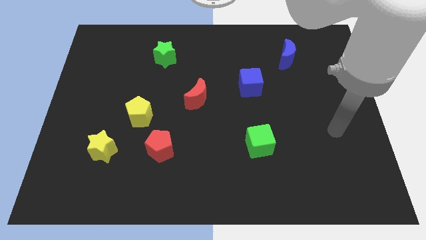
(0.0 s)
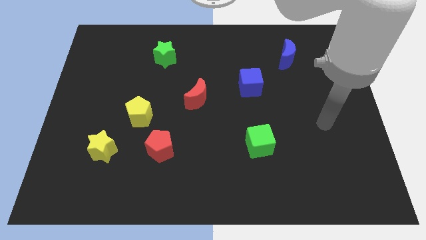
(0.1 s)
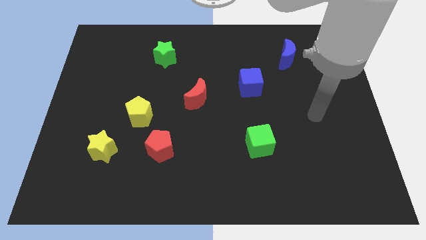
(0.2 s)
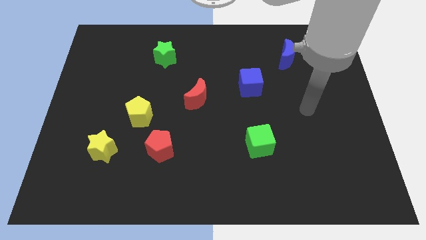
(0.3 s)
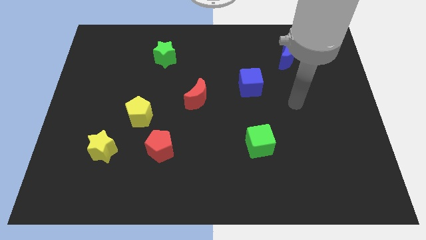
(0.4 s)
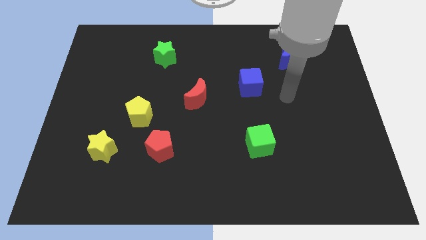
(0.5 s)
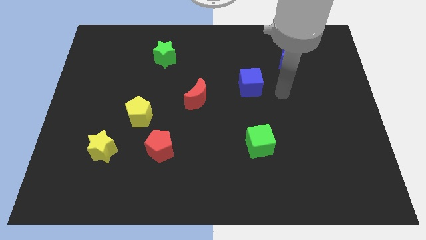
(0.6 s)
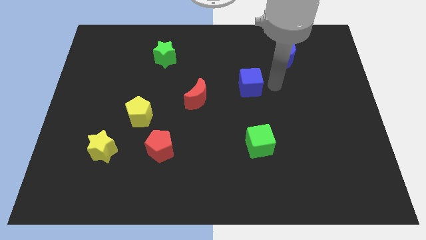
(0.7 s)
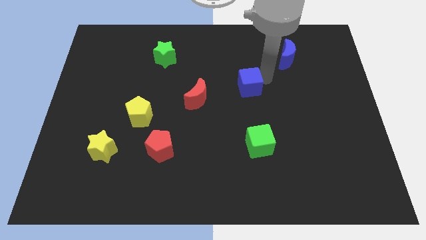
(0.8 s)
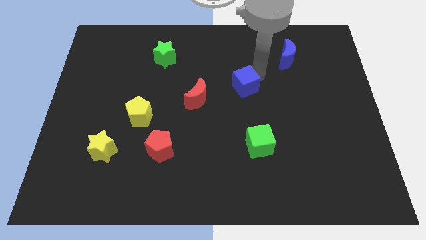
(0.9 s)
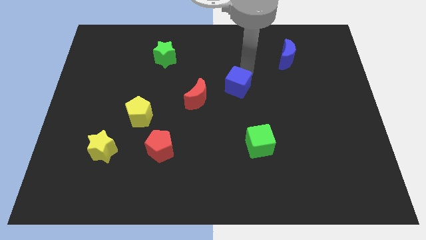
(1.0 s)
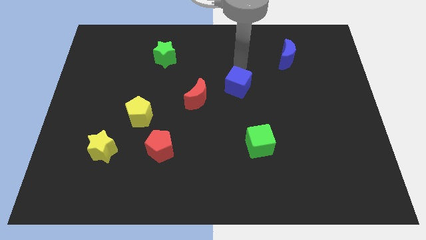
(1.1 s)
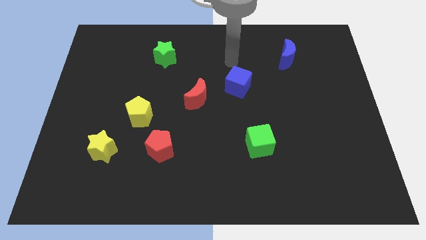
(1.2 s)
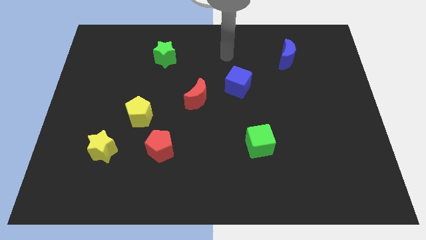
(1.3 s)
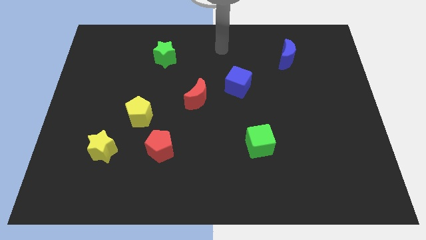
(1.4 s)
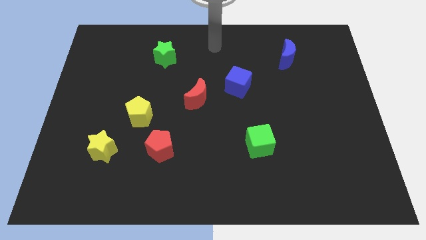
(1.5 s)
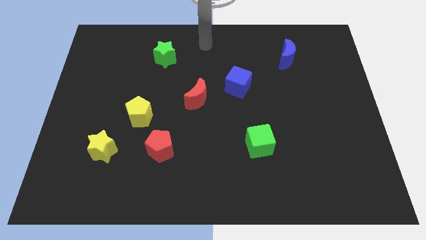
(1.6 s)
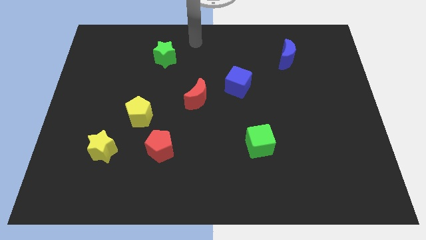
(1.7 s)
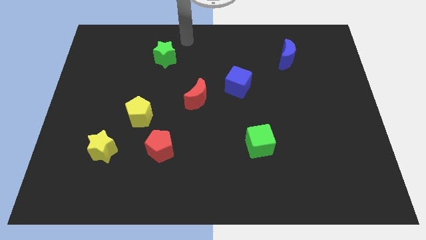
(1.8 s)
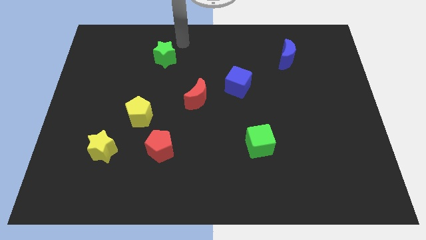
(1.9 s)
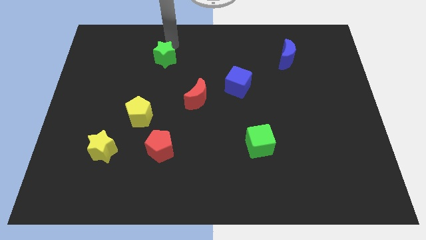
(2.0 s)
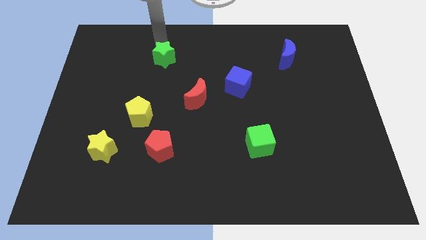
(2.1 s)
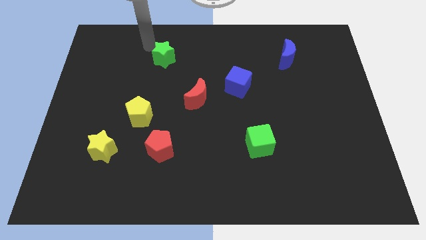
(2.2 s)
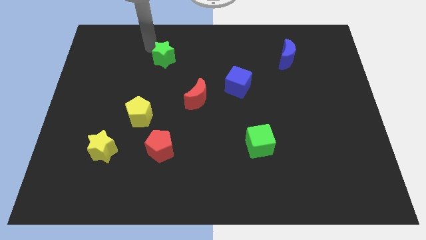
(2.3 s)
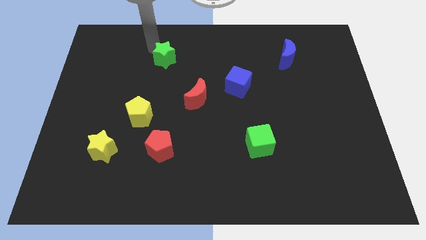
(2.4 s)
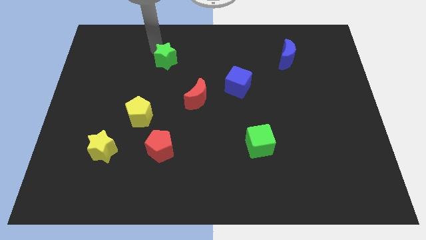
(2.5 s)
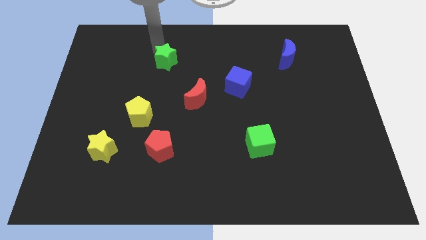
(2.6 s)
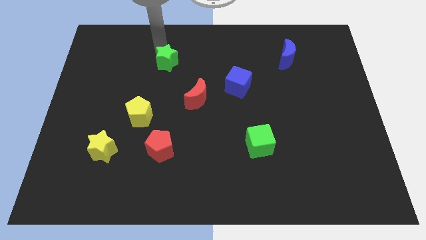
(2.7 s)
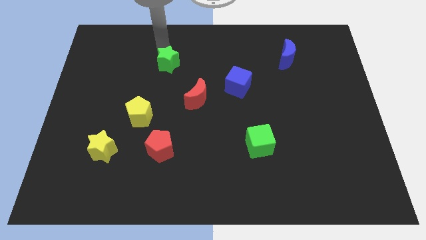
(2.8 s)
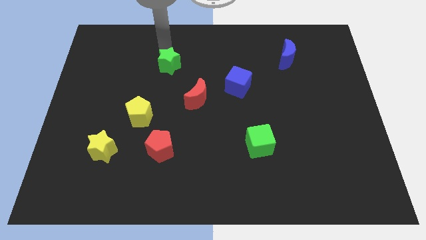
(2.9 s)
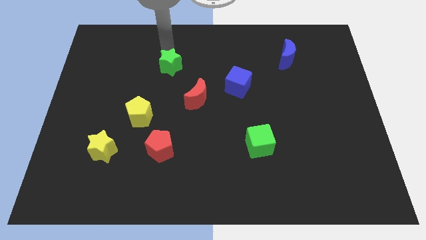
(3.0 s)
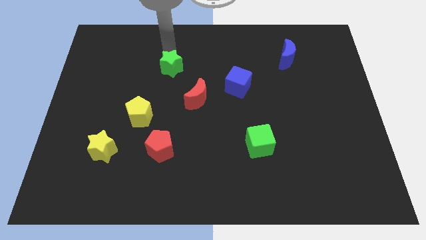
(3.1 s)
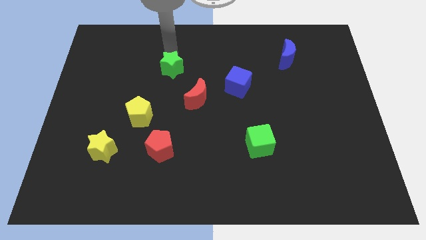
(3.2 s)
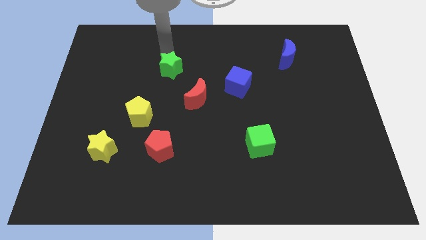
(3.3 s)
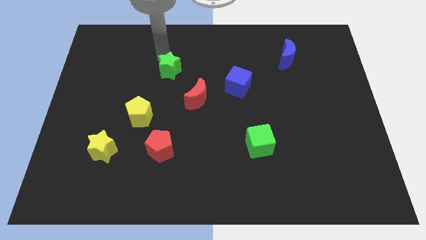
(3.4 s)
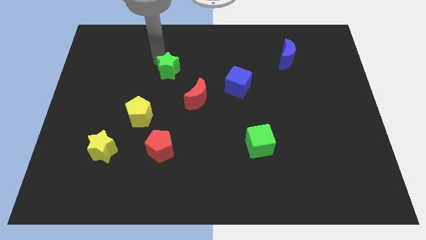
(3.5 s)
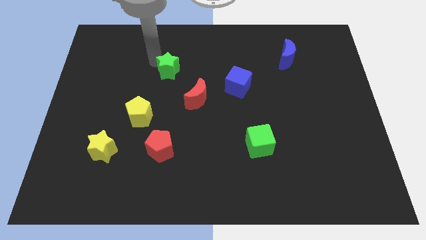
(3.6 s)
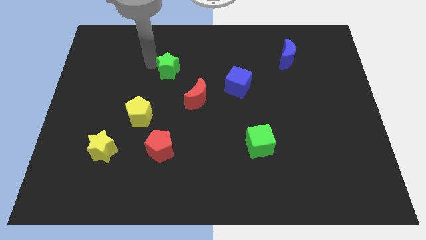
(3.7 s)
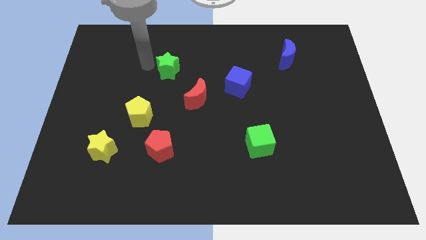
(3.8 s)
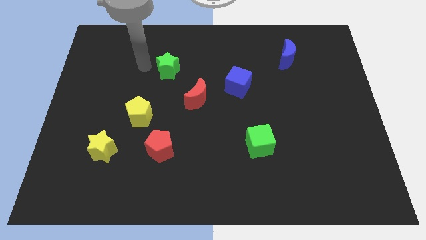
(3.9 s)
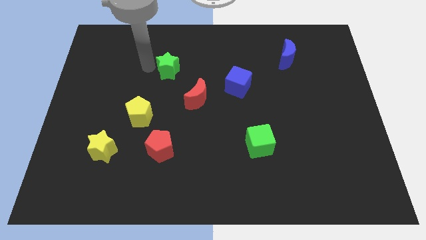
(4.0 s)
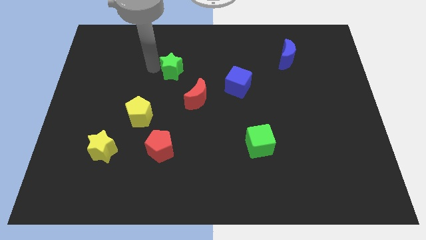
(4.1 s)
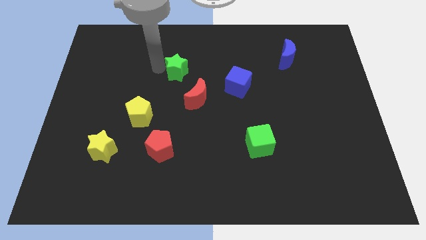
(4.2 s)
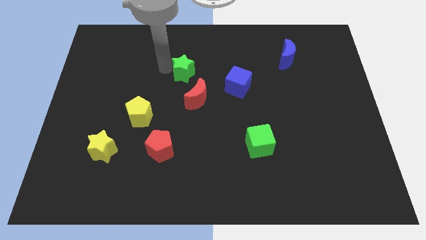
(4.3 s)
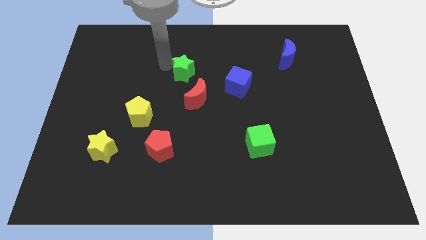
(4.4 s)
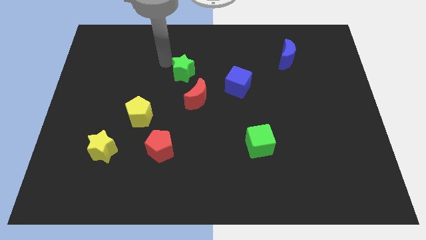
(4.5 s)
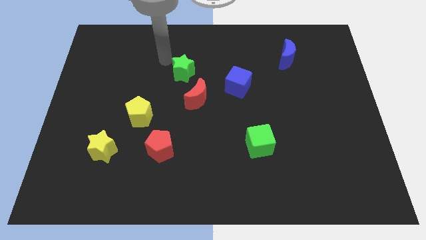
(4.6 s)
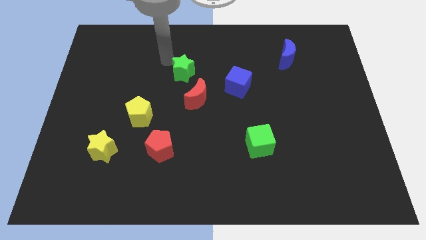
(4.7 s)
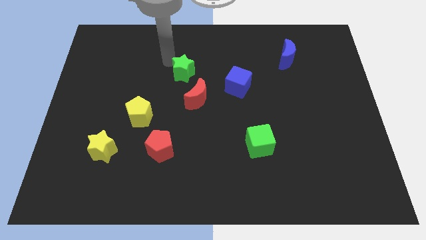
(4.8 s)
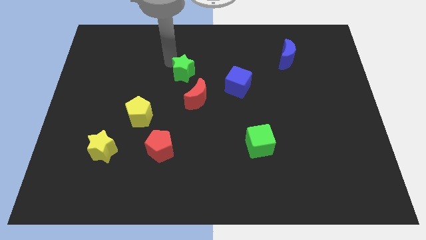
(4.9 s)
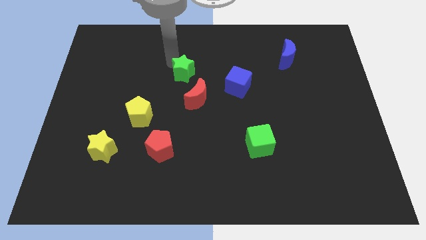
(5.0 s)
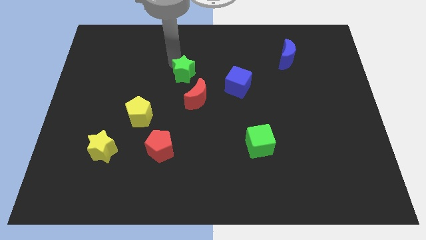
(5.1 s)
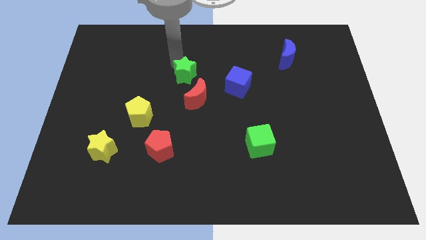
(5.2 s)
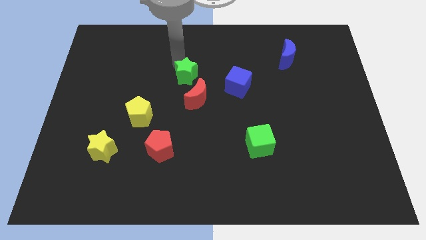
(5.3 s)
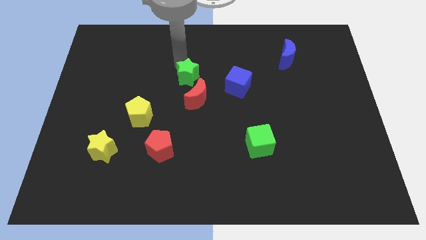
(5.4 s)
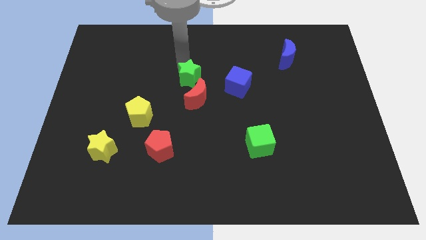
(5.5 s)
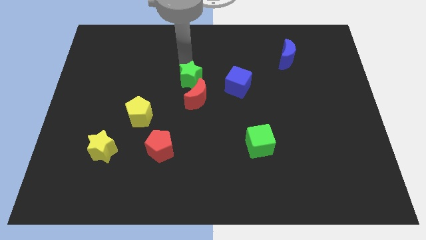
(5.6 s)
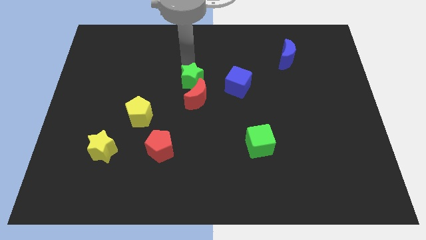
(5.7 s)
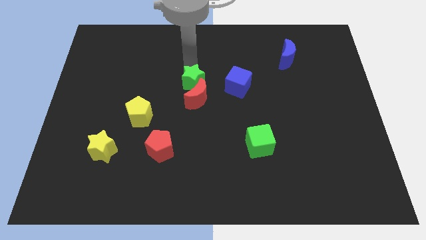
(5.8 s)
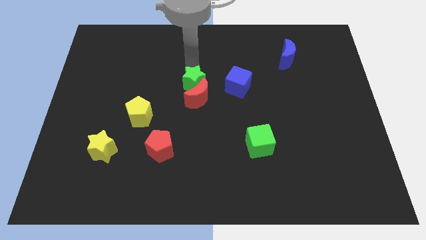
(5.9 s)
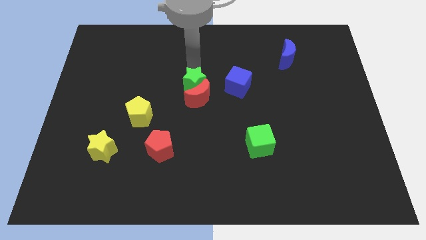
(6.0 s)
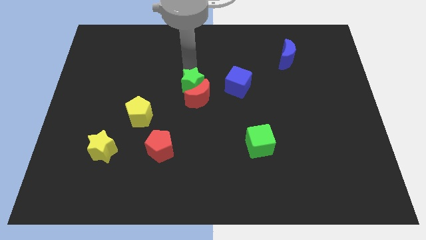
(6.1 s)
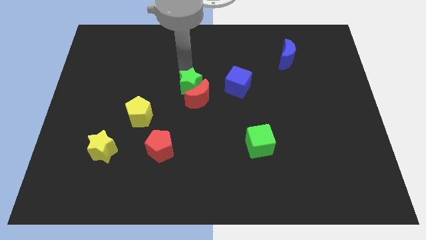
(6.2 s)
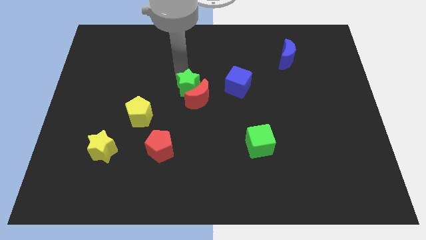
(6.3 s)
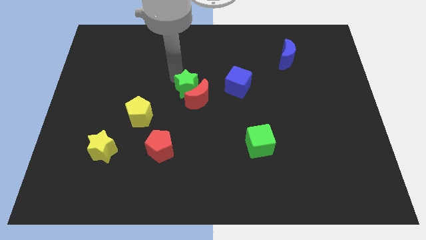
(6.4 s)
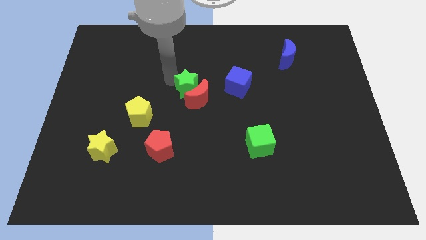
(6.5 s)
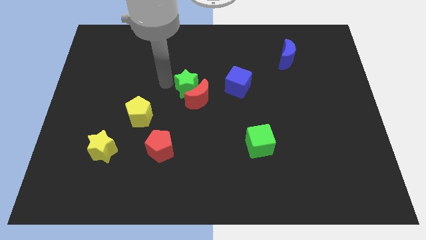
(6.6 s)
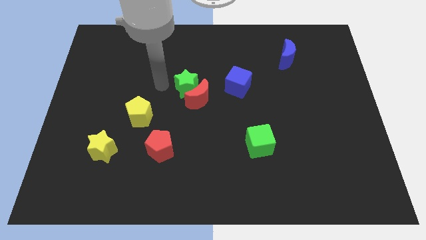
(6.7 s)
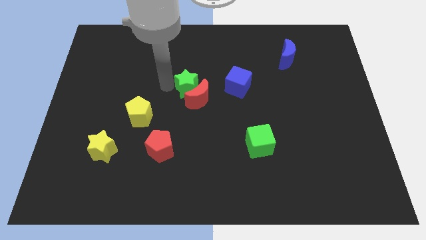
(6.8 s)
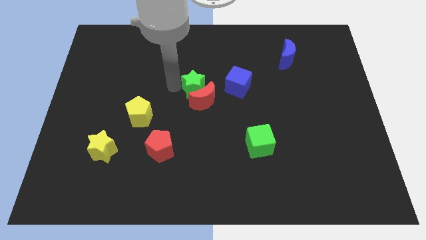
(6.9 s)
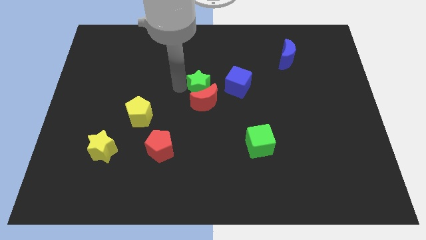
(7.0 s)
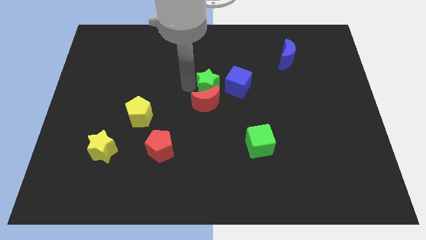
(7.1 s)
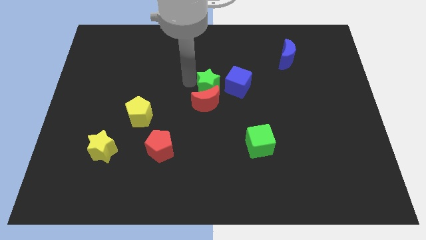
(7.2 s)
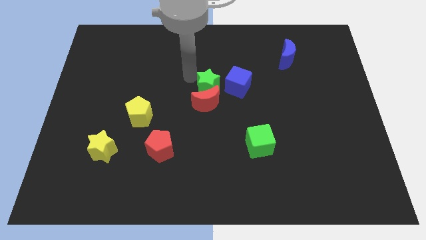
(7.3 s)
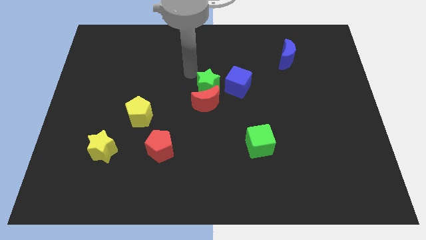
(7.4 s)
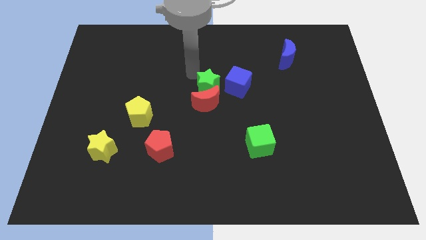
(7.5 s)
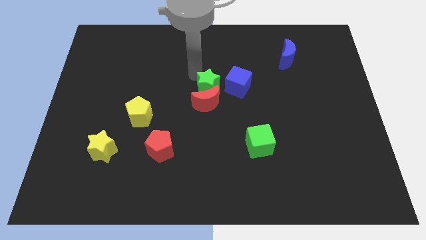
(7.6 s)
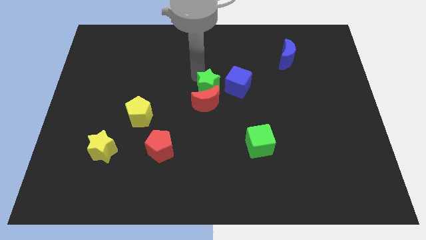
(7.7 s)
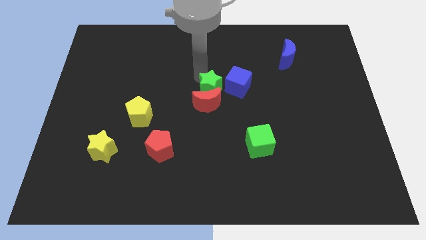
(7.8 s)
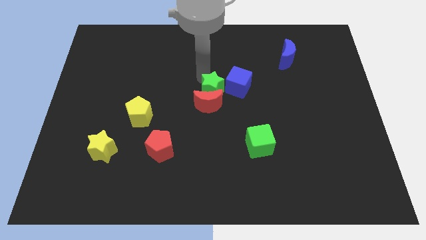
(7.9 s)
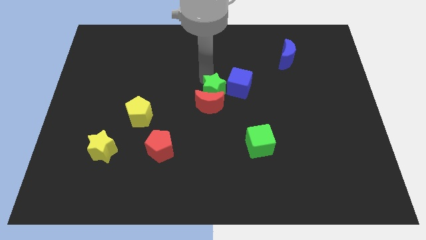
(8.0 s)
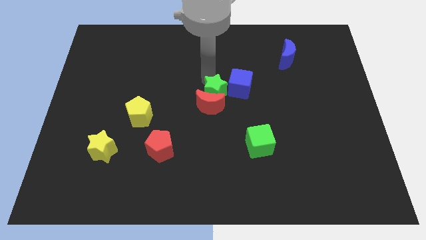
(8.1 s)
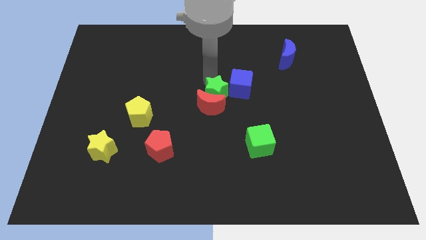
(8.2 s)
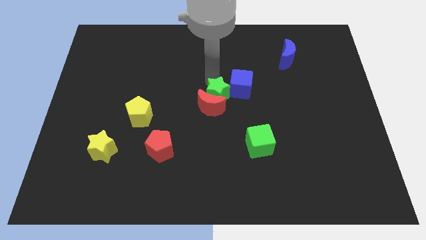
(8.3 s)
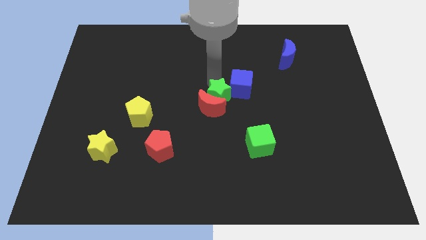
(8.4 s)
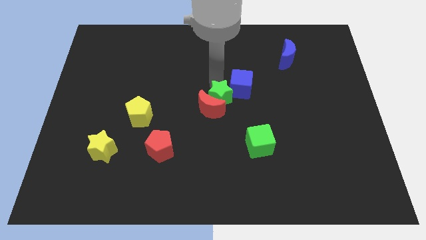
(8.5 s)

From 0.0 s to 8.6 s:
push the green star downwards and then to the right
